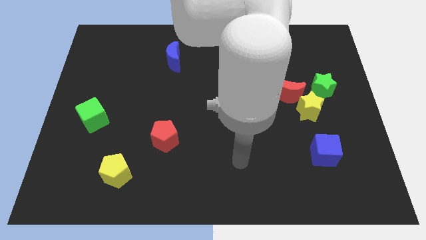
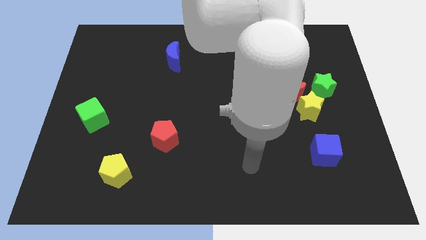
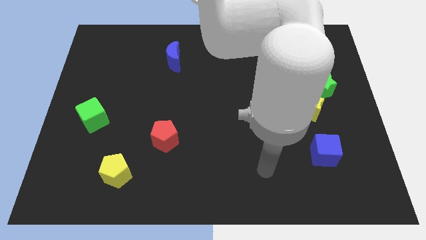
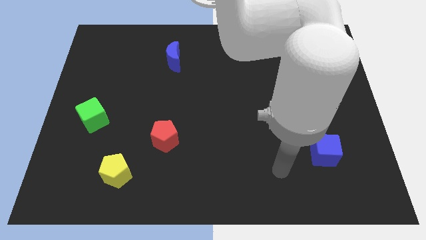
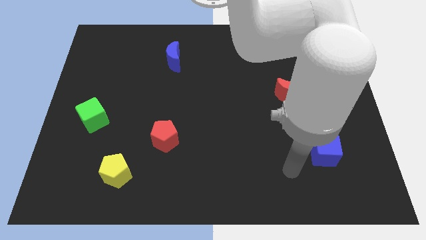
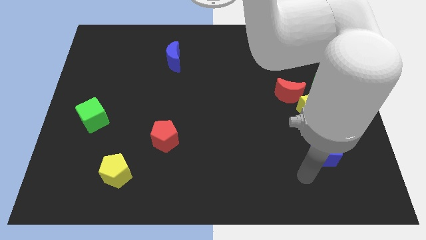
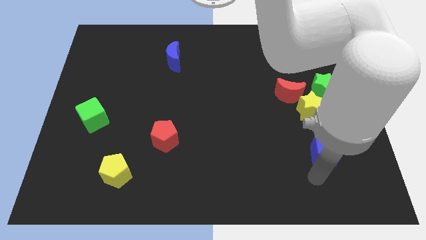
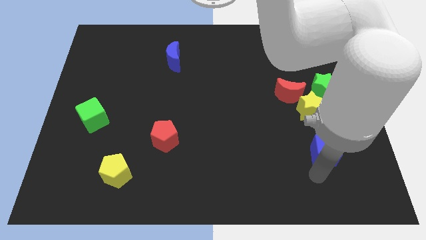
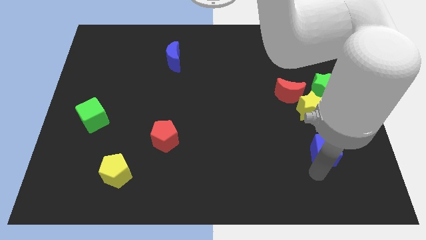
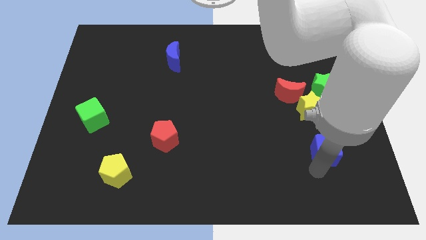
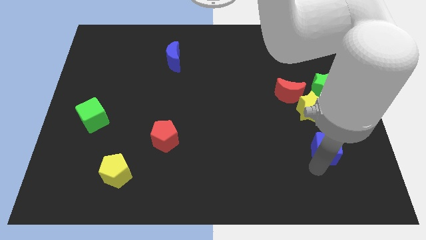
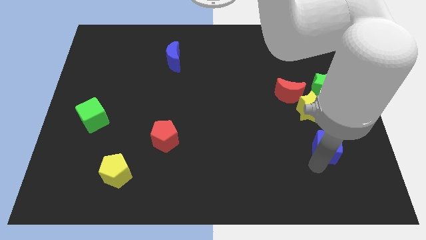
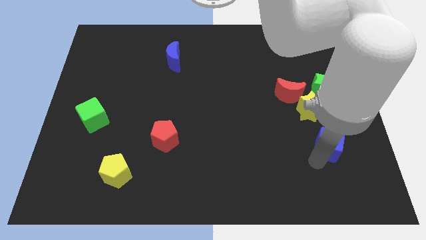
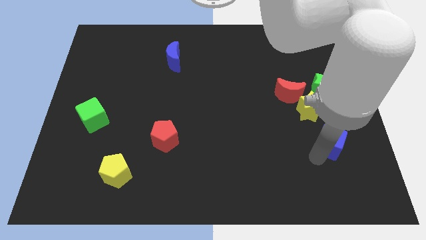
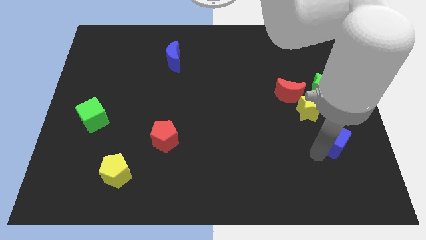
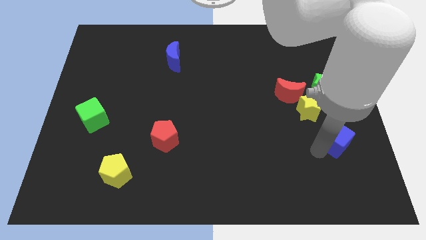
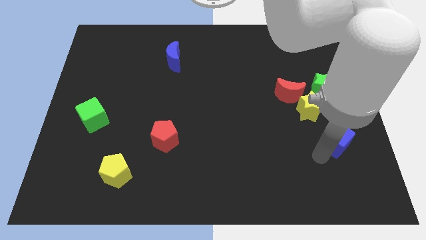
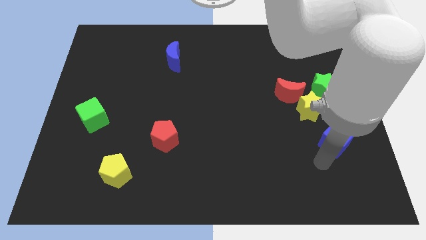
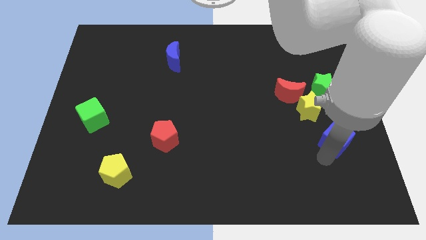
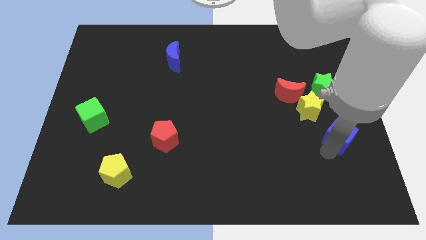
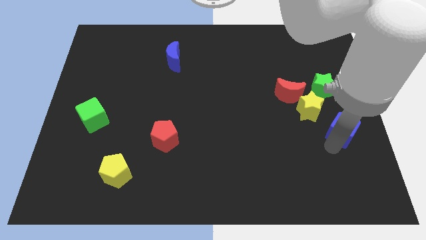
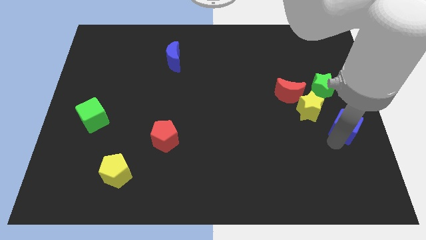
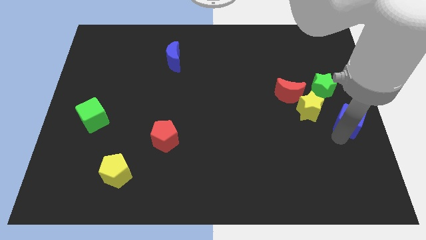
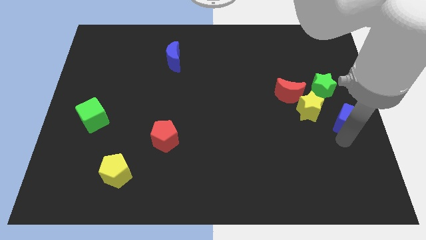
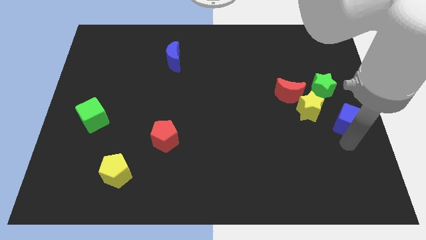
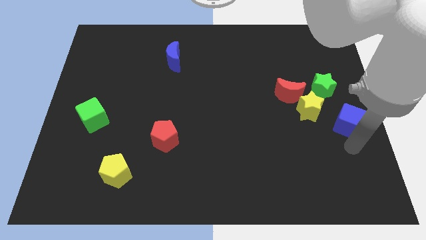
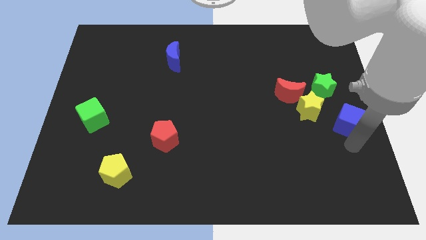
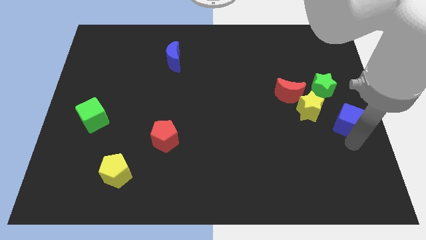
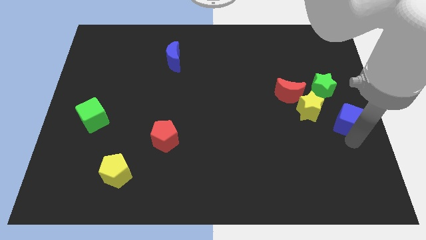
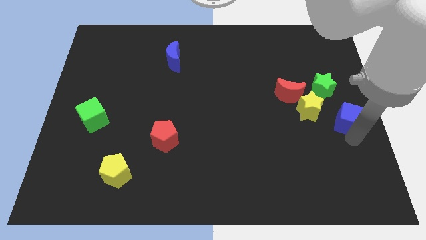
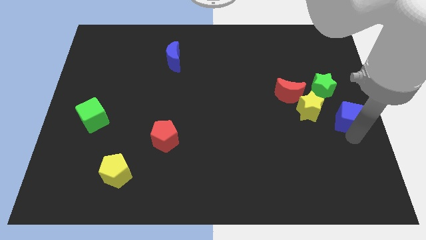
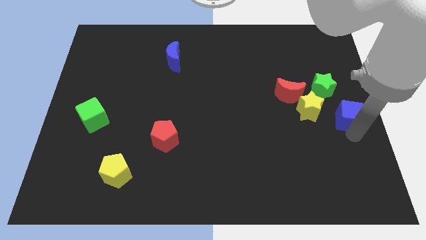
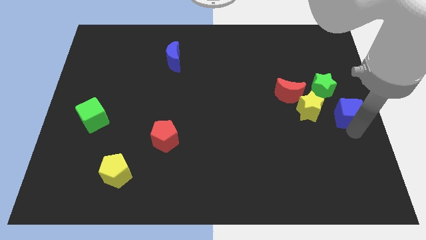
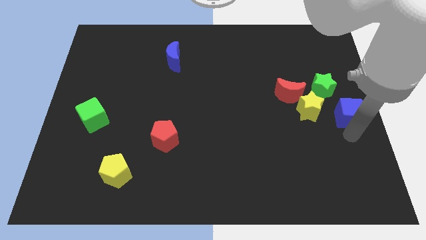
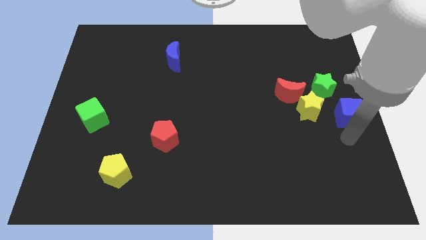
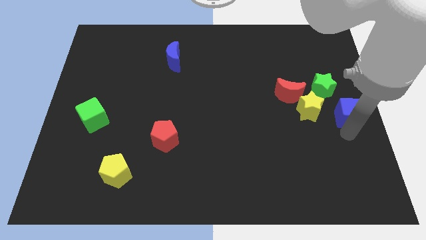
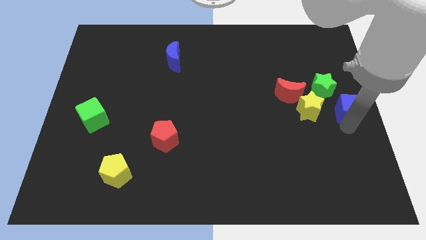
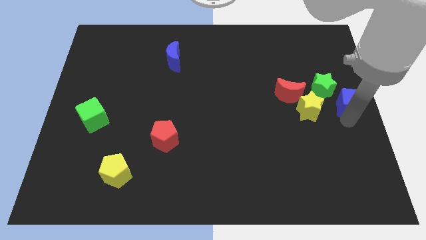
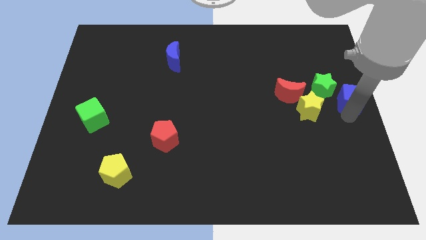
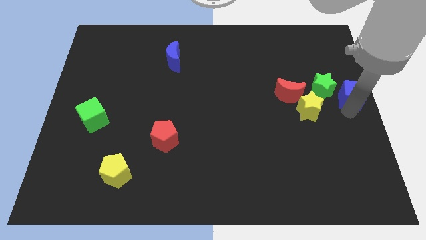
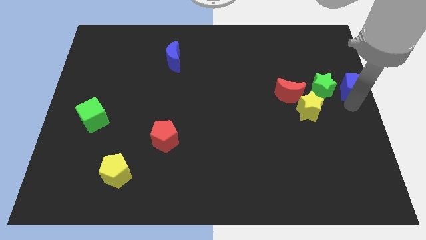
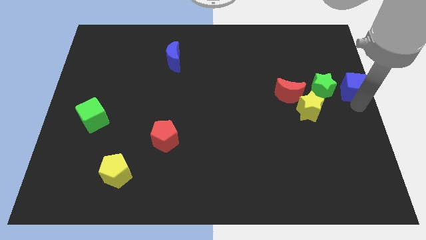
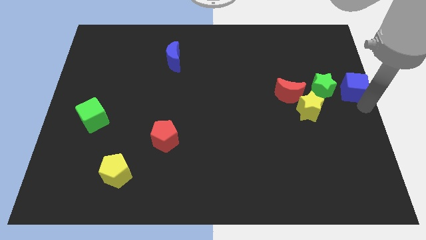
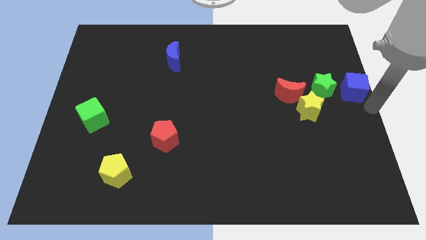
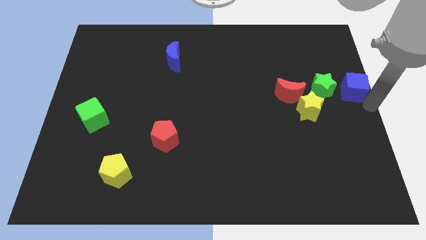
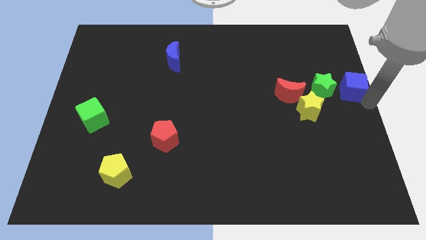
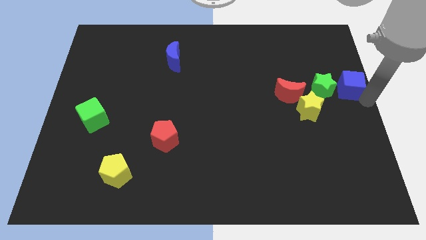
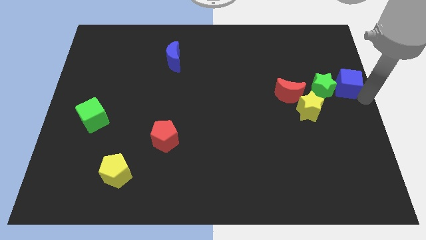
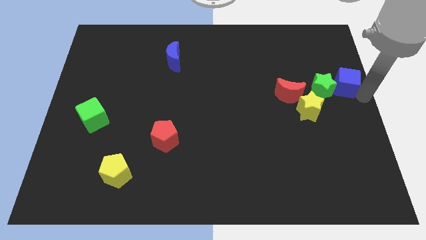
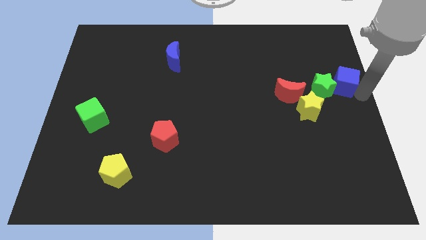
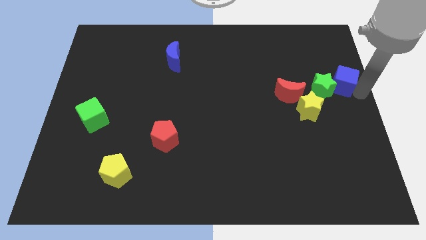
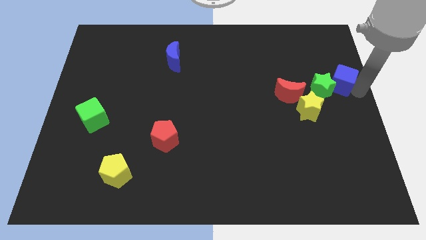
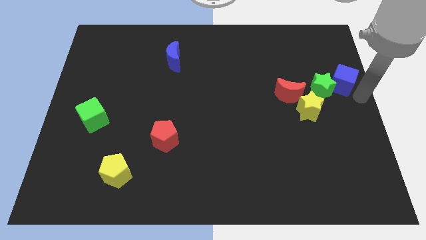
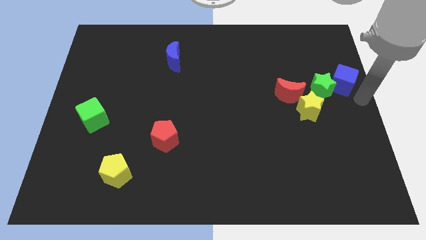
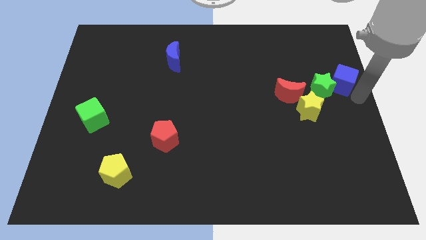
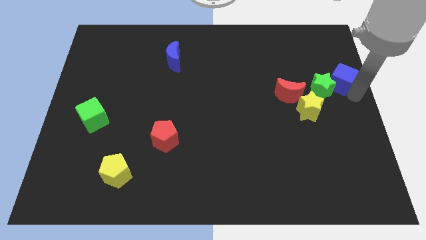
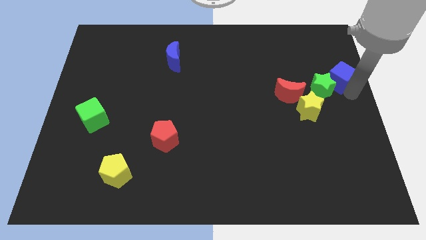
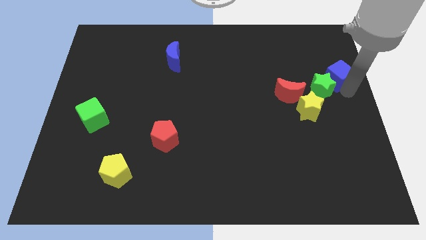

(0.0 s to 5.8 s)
push the blue cube to the top side of the green star

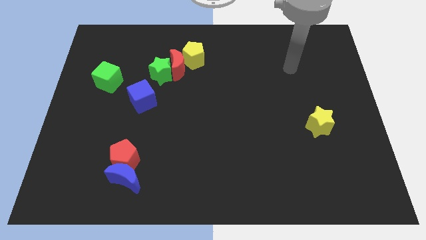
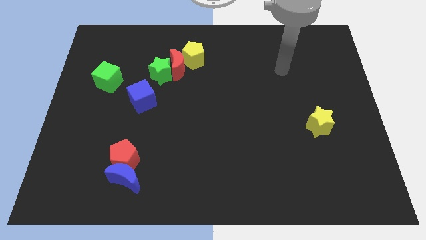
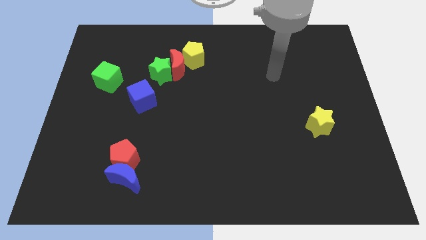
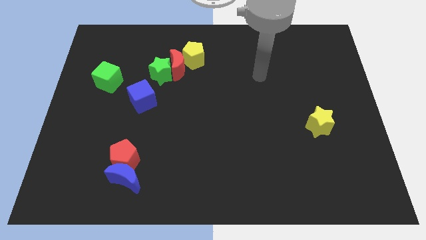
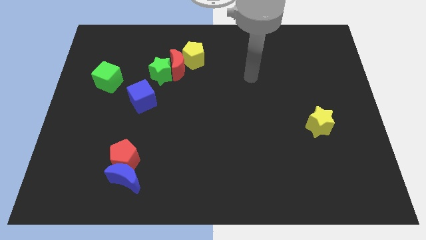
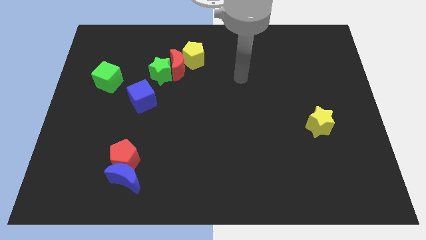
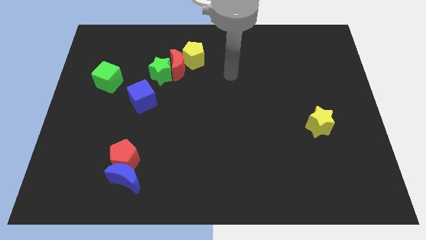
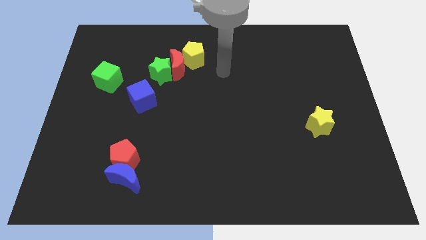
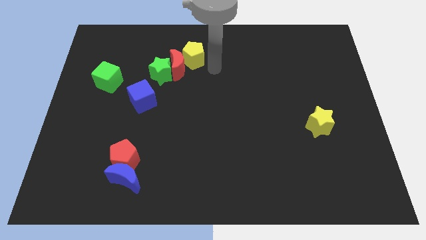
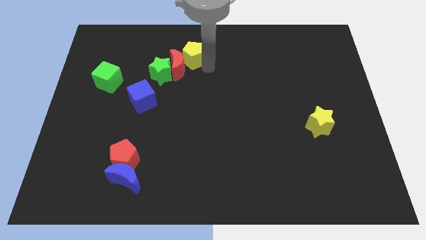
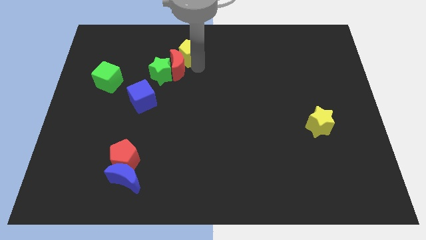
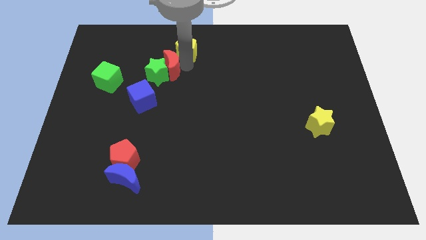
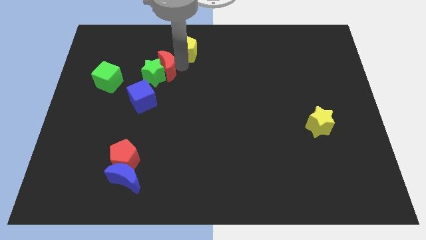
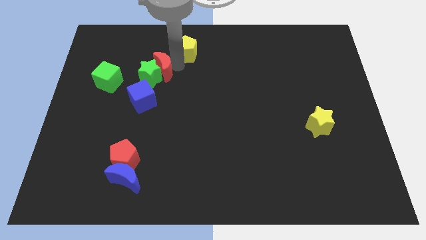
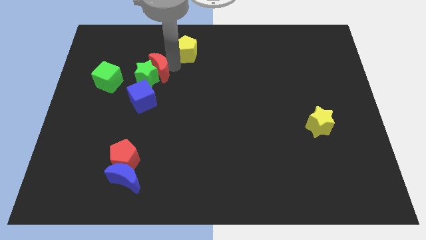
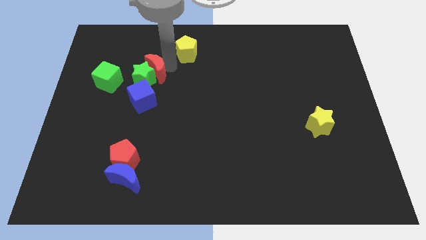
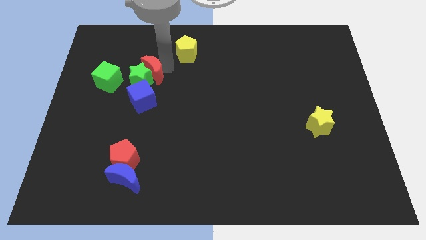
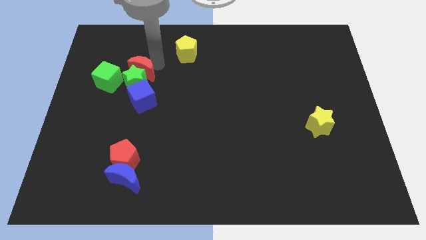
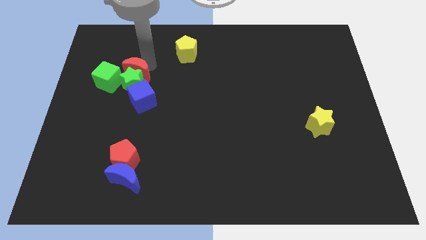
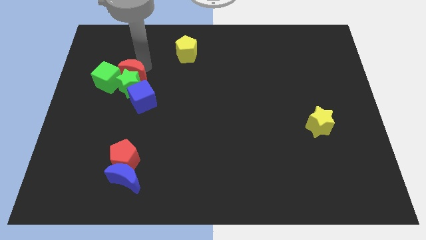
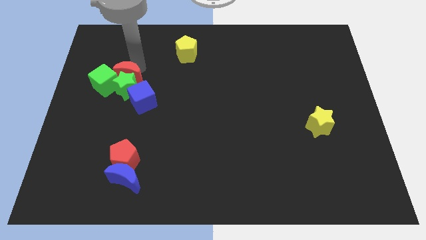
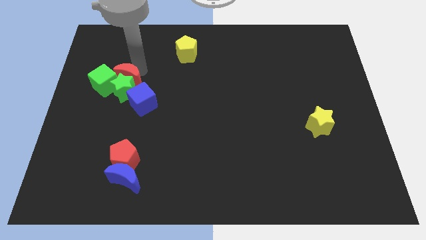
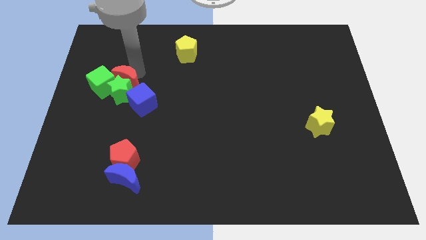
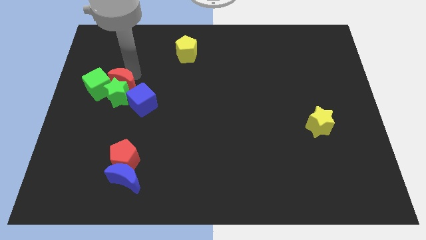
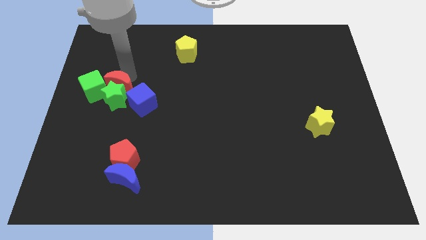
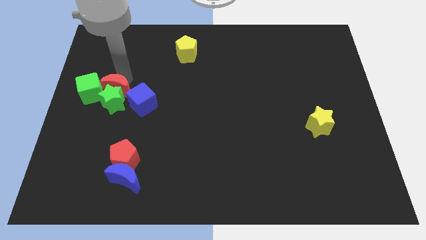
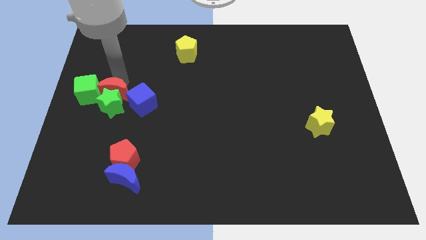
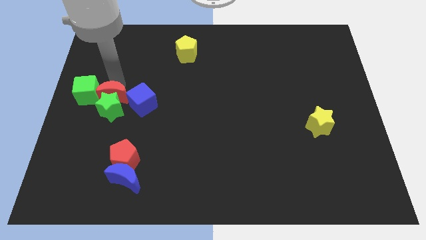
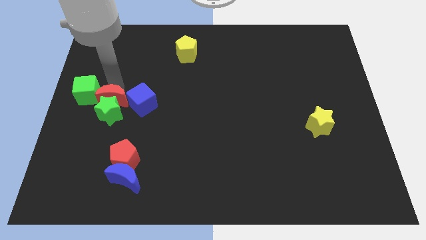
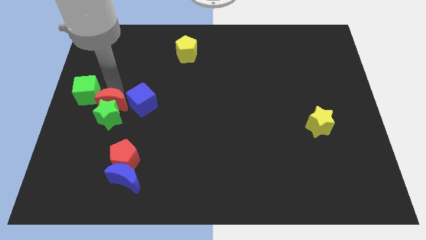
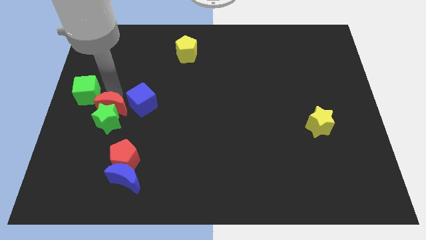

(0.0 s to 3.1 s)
put the green star to the top left of the red pentagon
